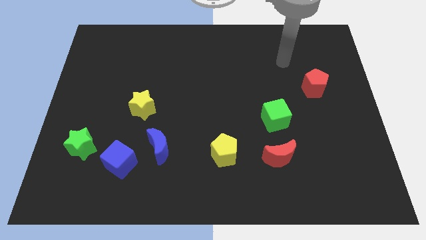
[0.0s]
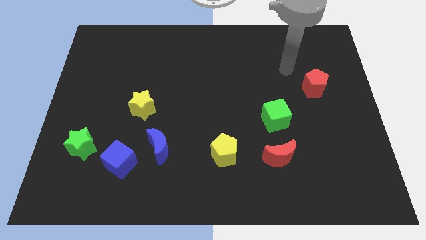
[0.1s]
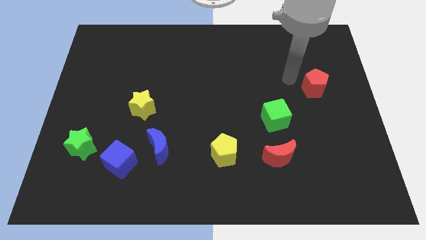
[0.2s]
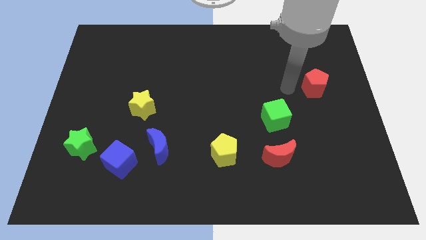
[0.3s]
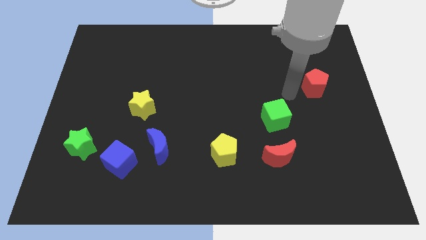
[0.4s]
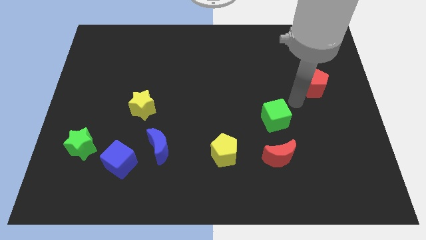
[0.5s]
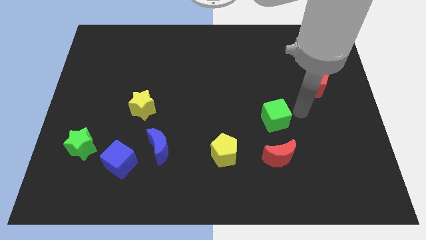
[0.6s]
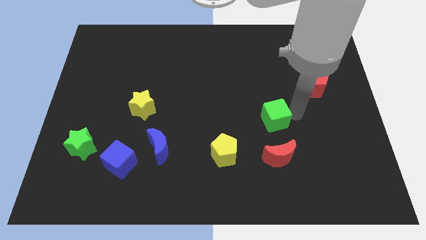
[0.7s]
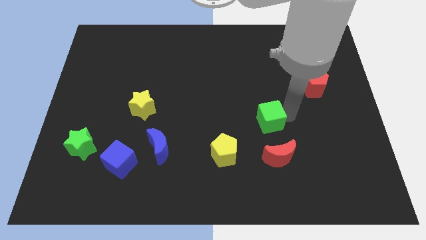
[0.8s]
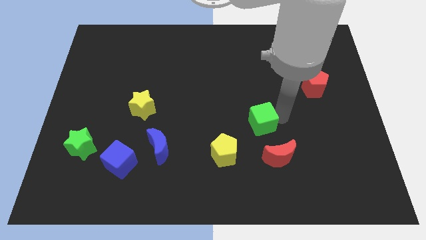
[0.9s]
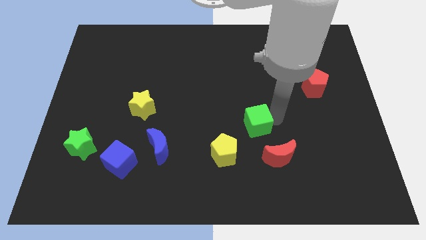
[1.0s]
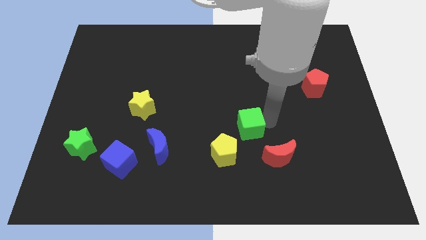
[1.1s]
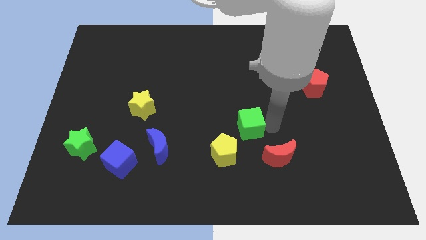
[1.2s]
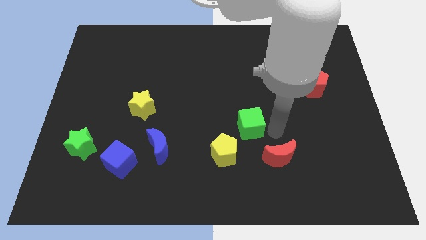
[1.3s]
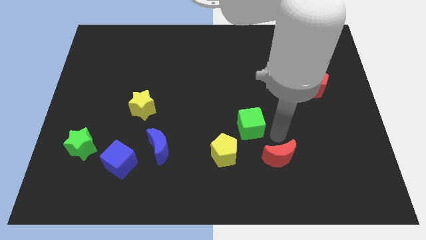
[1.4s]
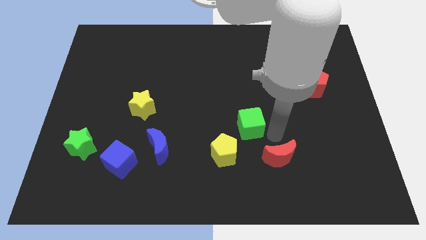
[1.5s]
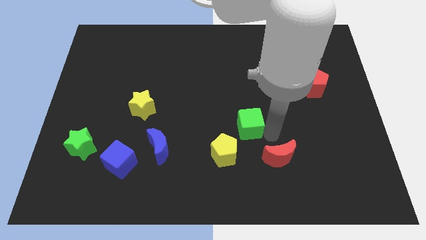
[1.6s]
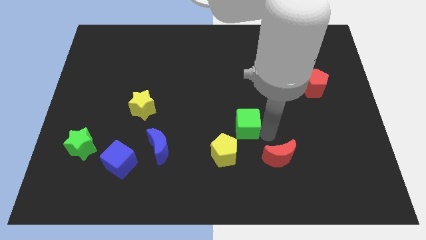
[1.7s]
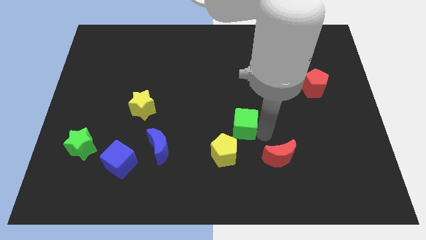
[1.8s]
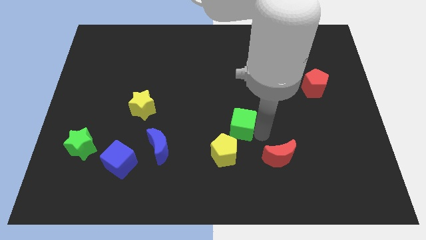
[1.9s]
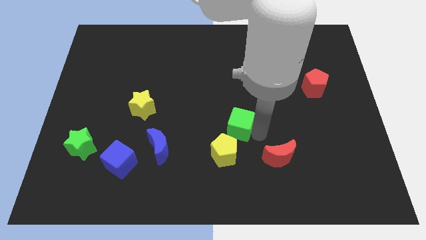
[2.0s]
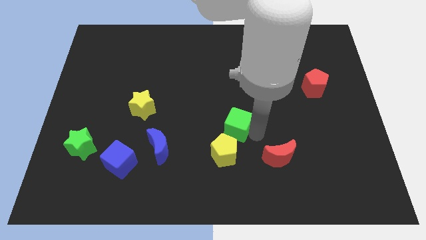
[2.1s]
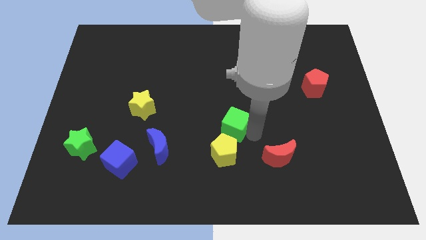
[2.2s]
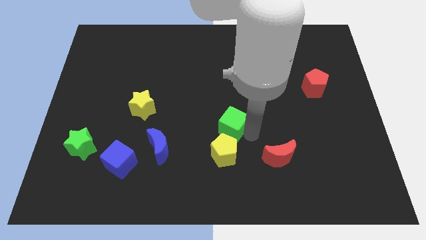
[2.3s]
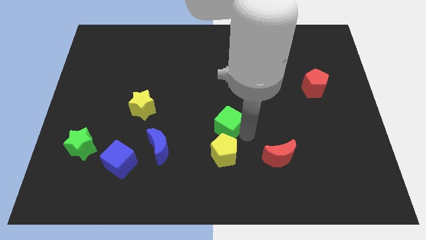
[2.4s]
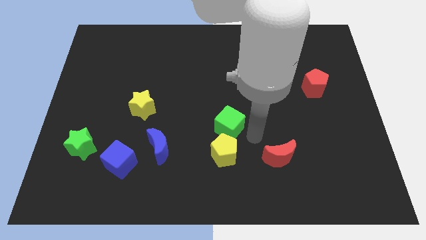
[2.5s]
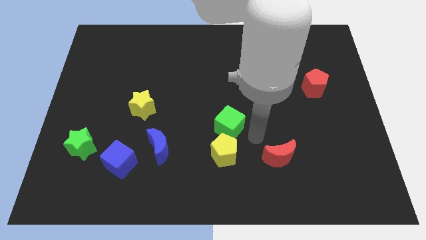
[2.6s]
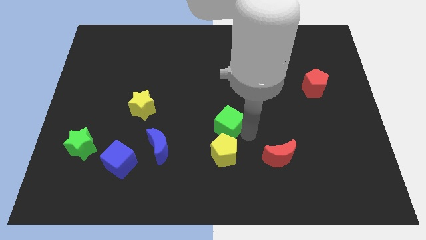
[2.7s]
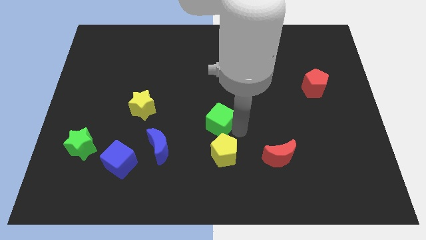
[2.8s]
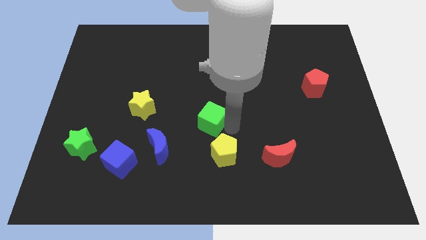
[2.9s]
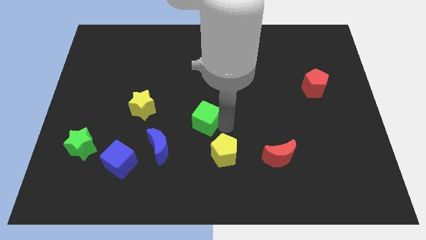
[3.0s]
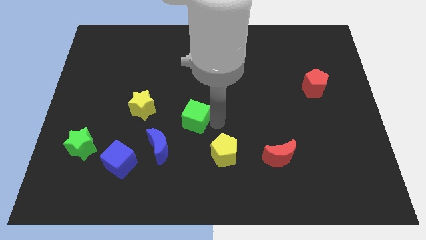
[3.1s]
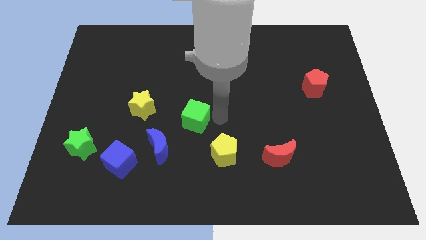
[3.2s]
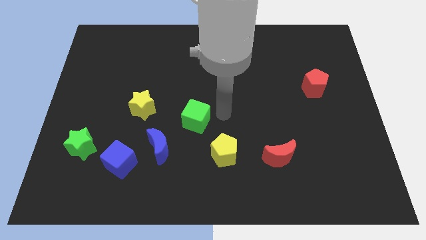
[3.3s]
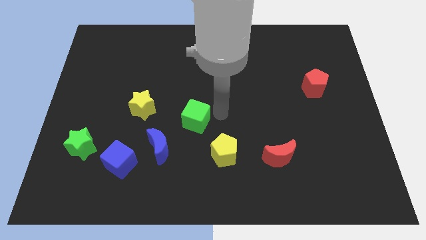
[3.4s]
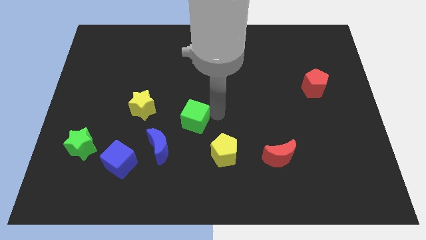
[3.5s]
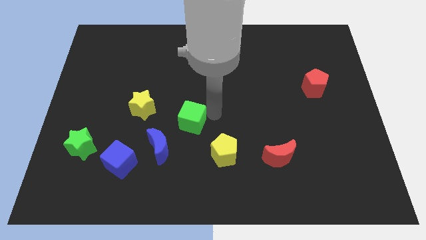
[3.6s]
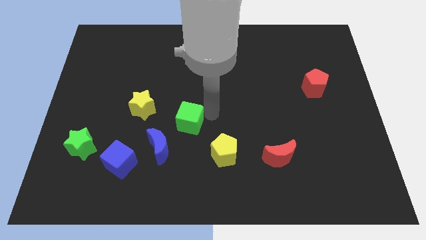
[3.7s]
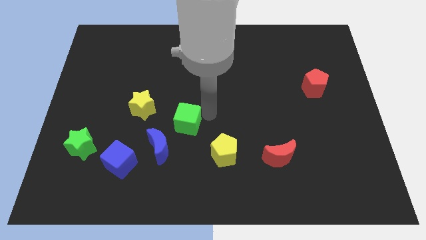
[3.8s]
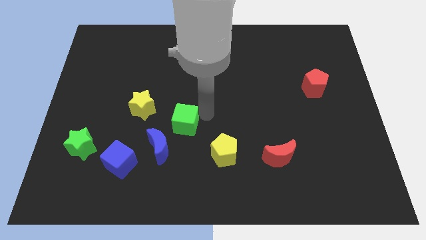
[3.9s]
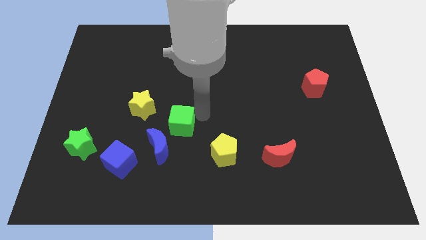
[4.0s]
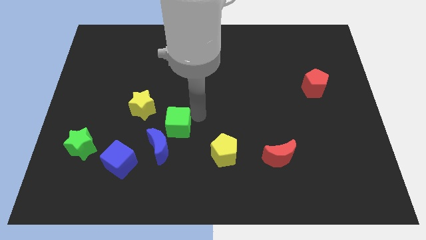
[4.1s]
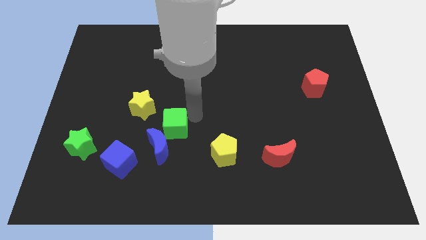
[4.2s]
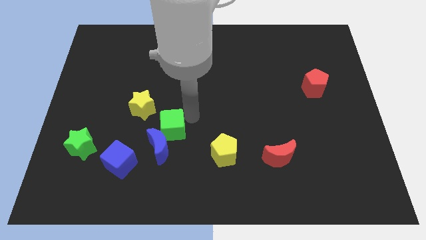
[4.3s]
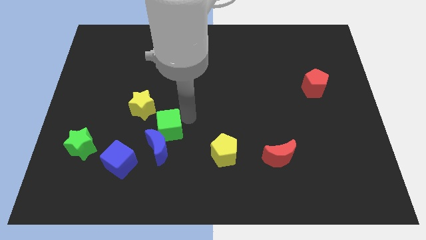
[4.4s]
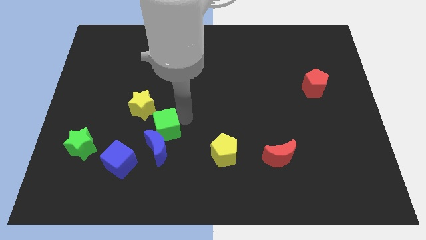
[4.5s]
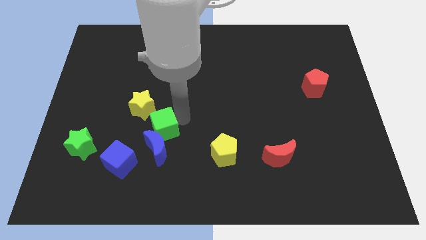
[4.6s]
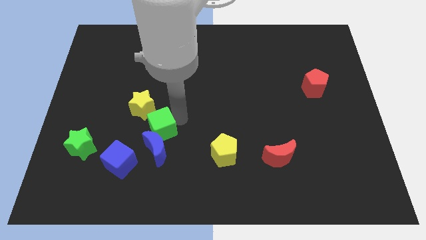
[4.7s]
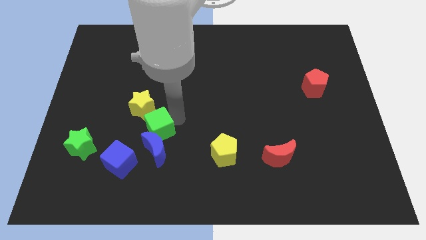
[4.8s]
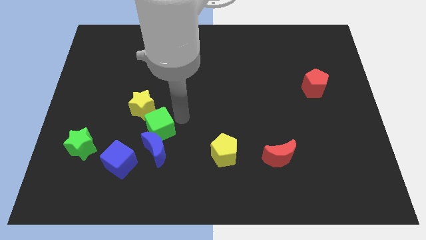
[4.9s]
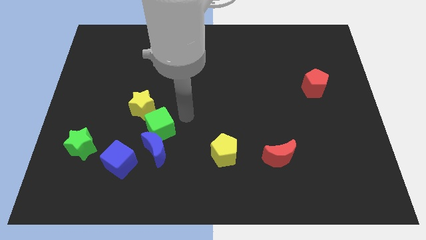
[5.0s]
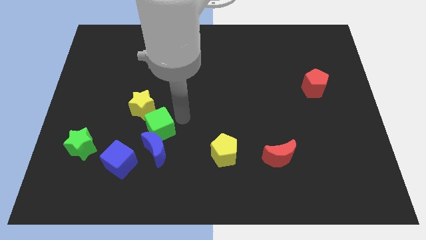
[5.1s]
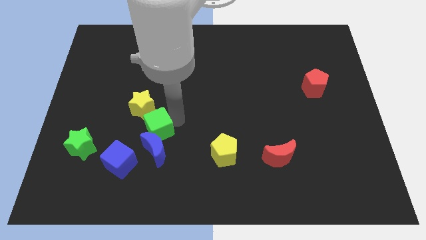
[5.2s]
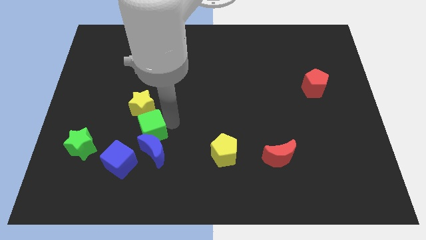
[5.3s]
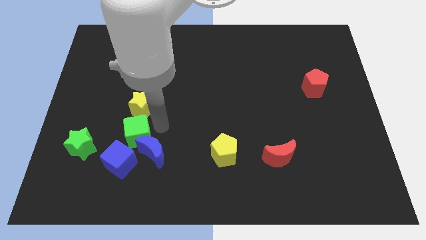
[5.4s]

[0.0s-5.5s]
slide the green cube left of the blue moon

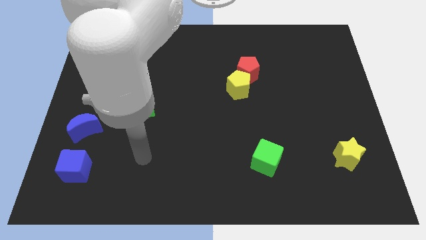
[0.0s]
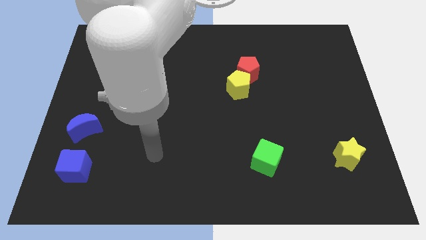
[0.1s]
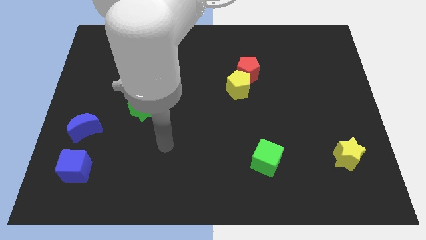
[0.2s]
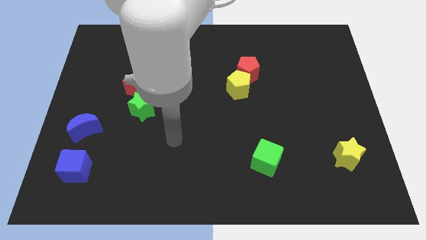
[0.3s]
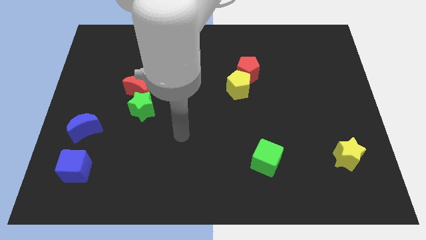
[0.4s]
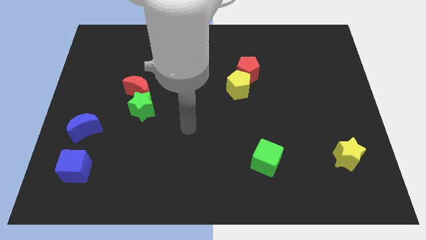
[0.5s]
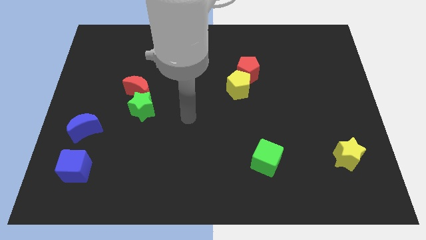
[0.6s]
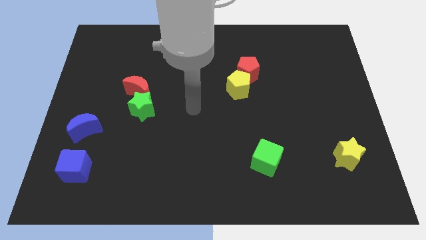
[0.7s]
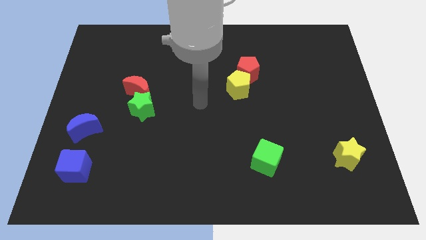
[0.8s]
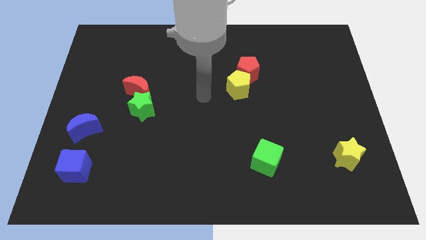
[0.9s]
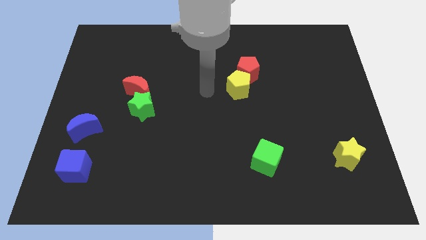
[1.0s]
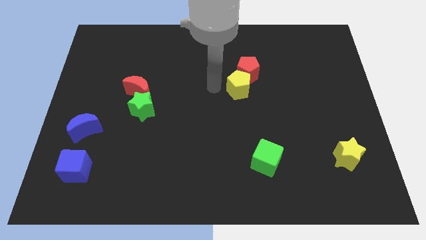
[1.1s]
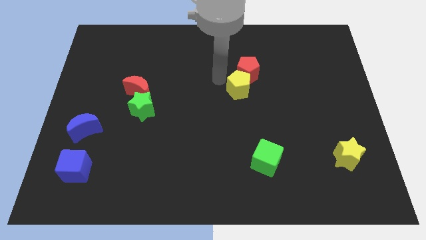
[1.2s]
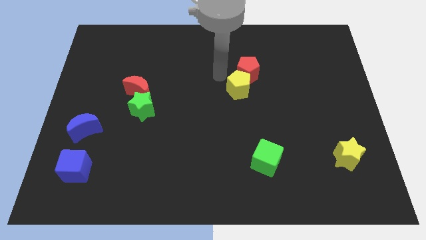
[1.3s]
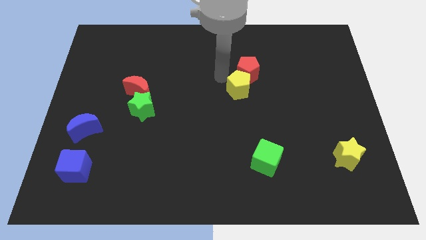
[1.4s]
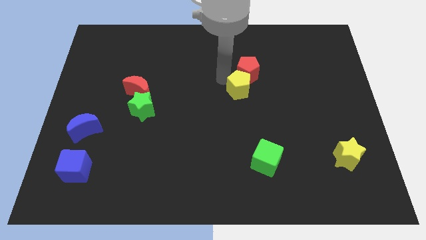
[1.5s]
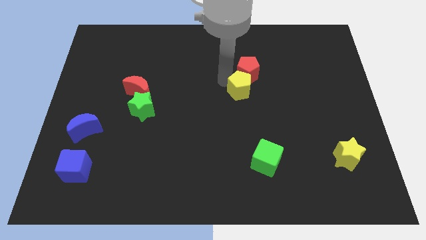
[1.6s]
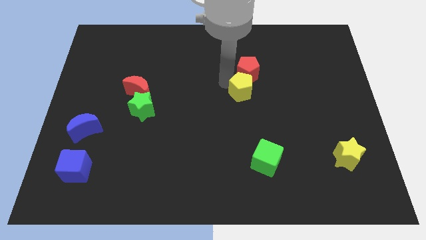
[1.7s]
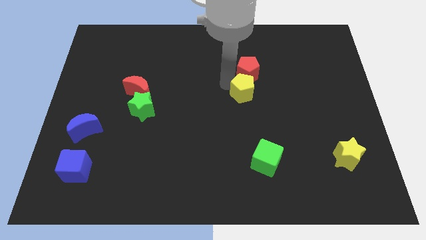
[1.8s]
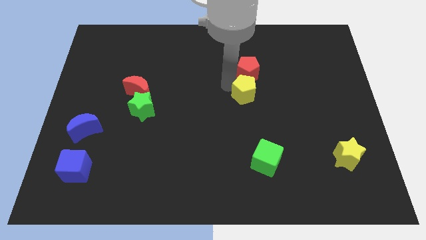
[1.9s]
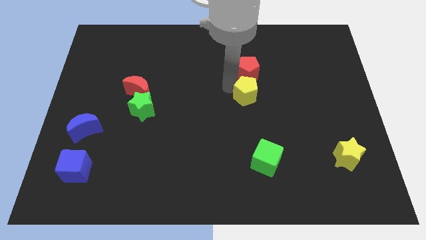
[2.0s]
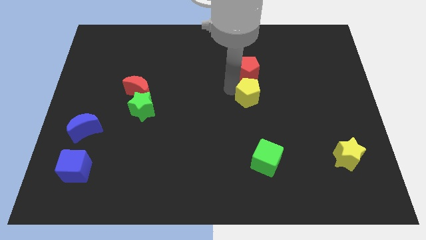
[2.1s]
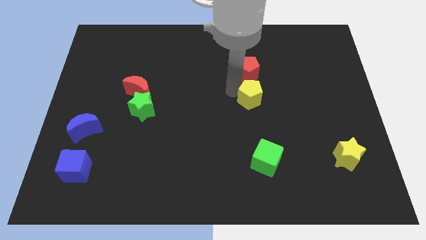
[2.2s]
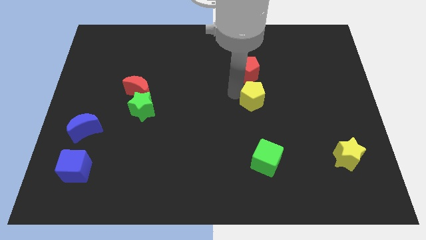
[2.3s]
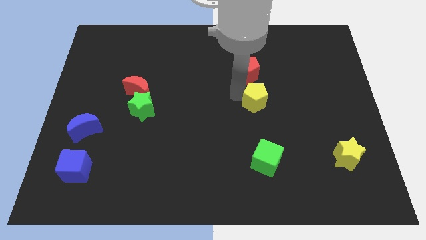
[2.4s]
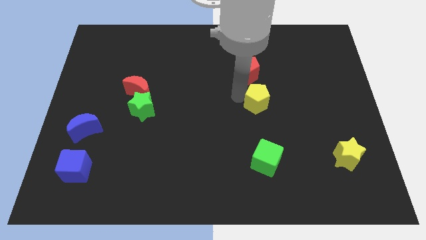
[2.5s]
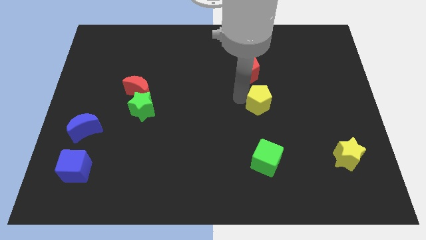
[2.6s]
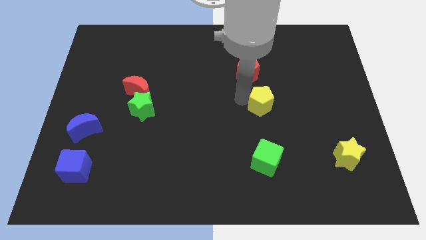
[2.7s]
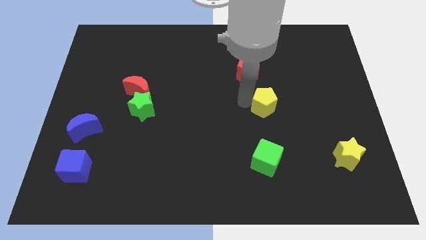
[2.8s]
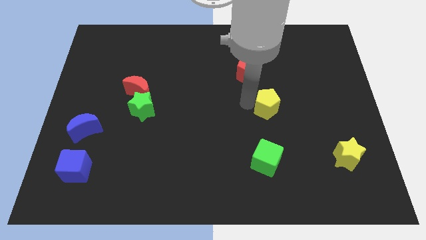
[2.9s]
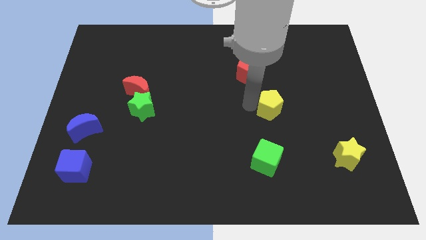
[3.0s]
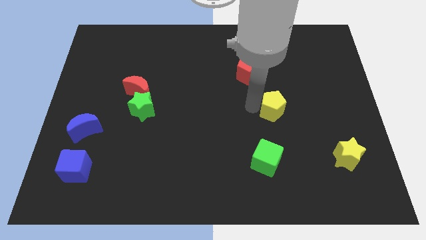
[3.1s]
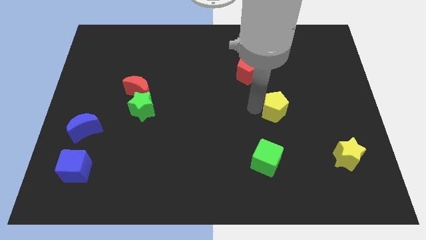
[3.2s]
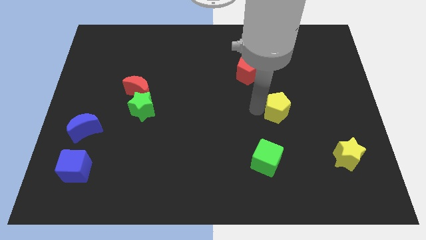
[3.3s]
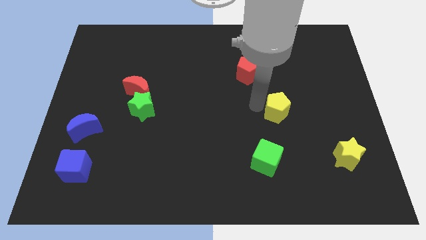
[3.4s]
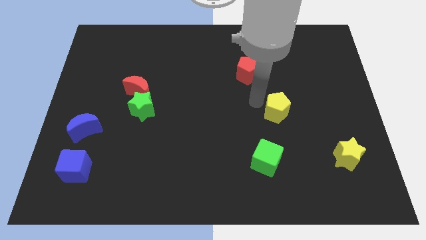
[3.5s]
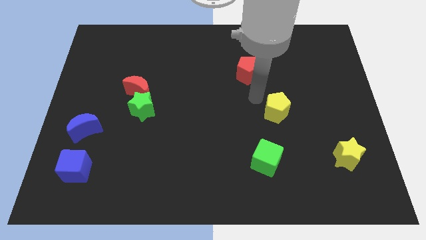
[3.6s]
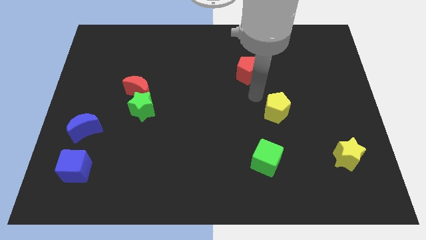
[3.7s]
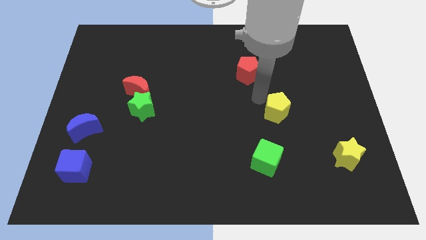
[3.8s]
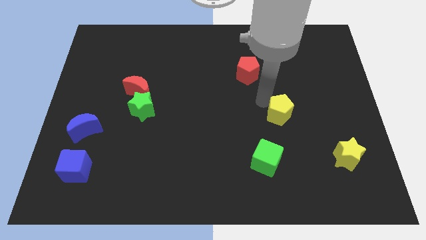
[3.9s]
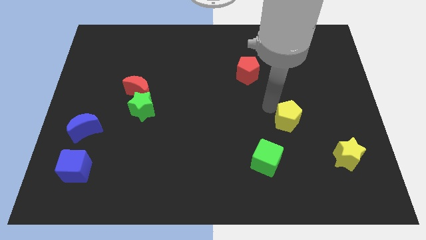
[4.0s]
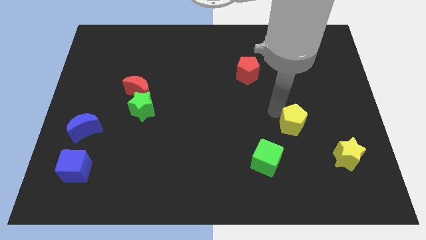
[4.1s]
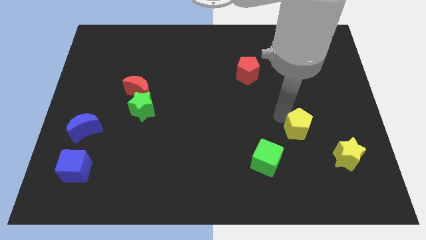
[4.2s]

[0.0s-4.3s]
move the yellow pentagon diagonally up and to the left of the yellow star
